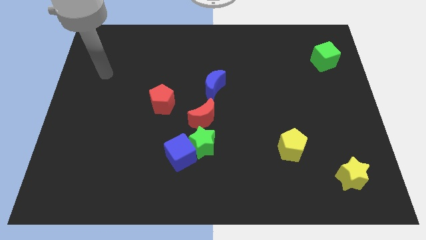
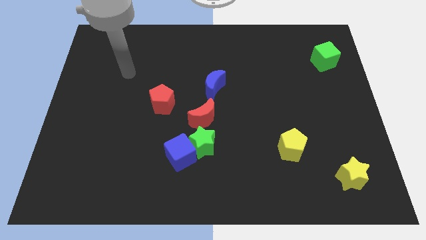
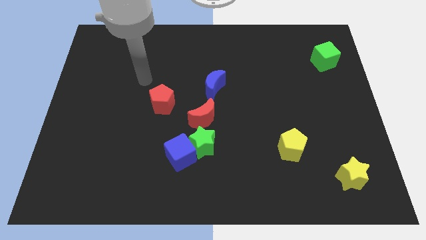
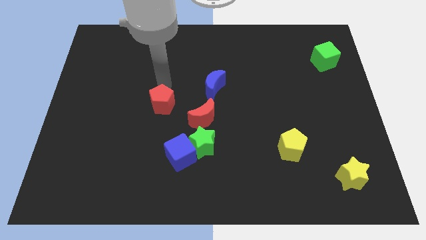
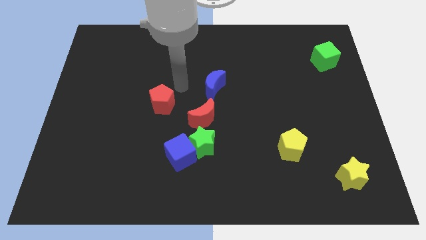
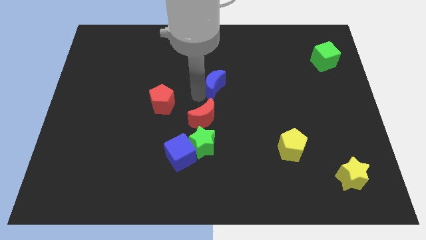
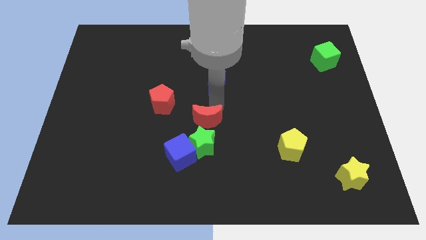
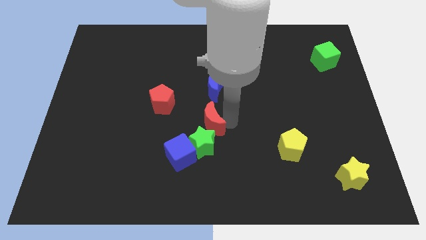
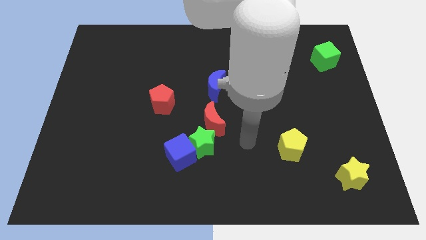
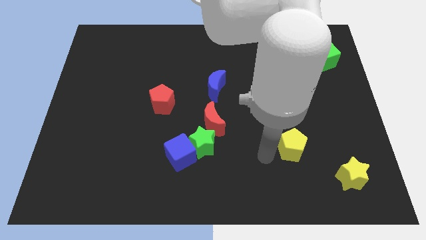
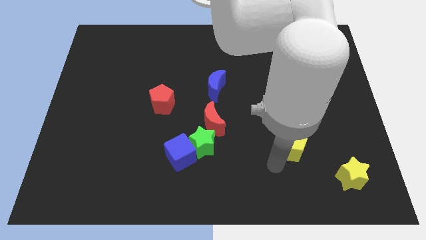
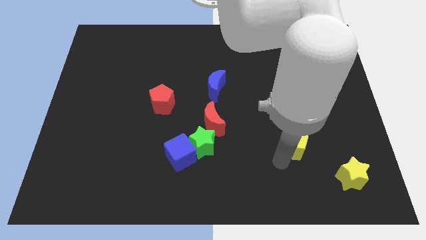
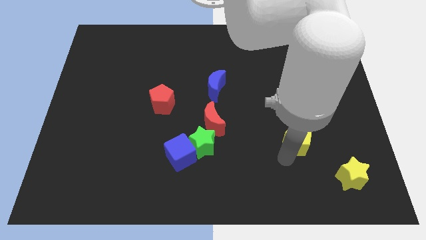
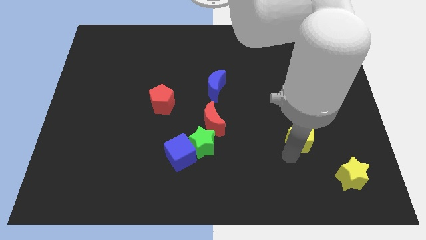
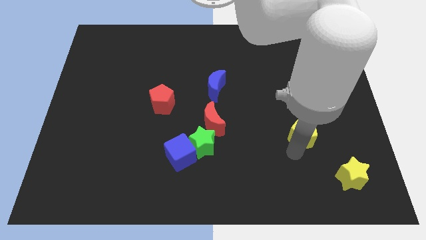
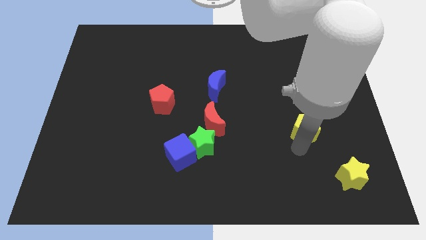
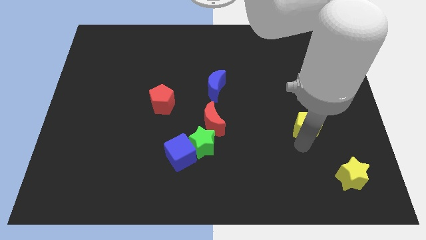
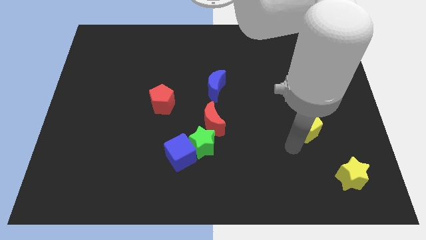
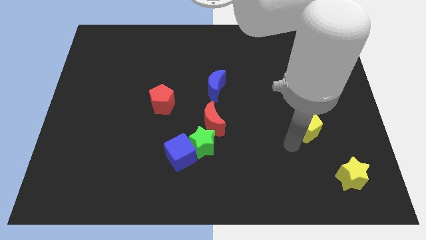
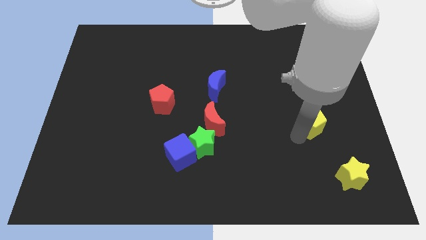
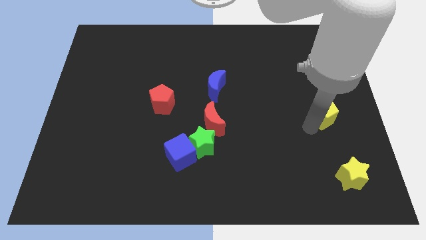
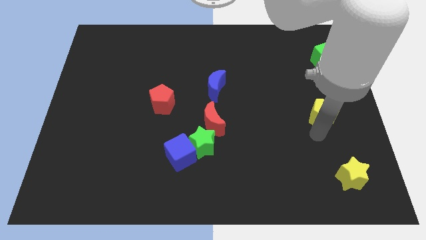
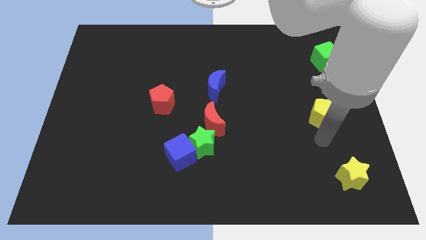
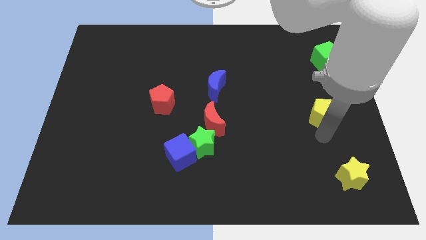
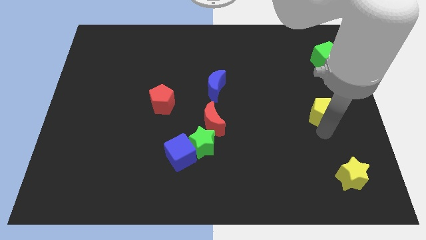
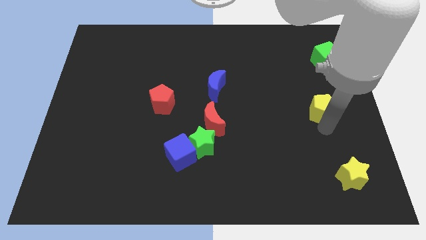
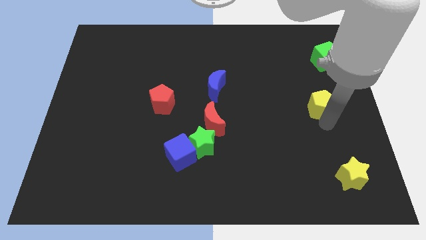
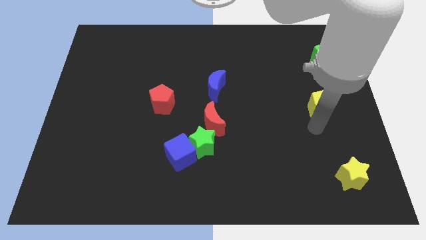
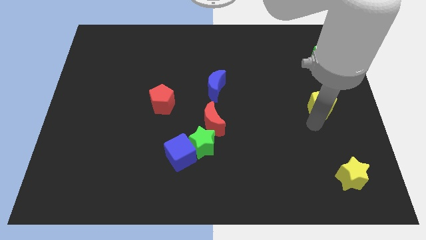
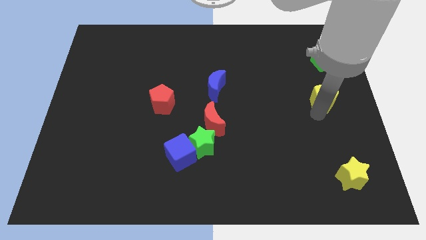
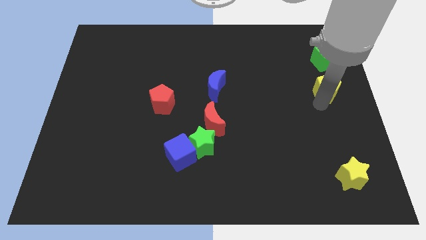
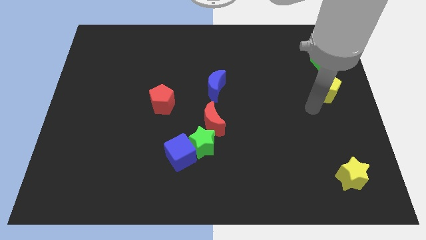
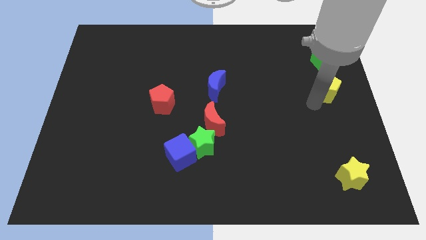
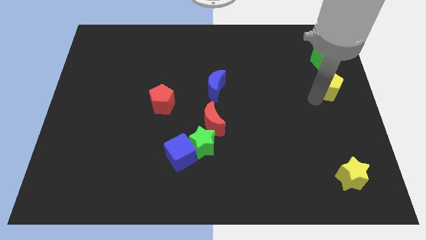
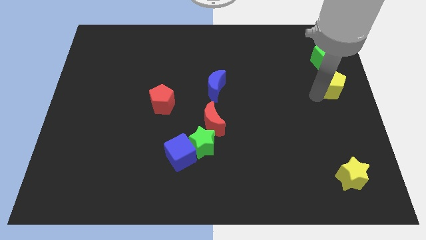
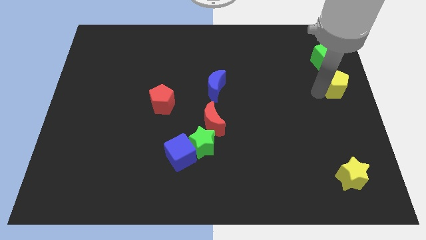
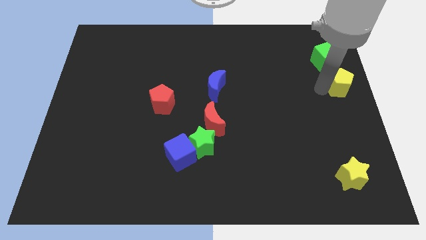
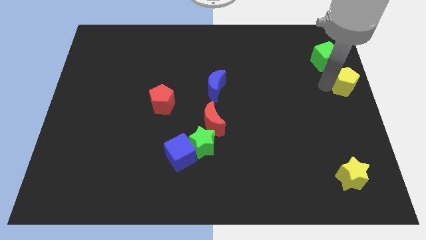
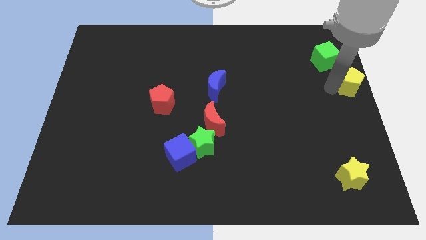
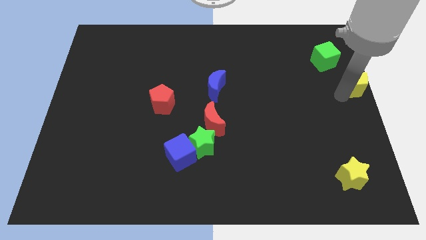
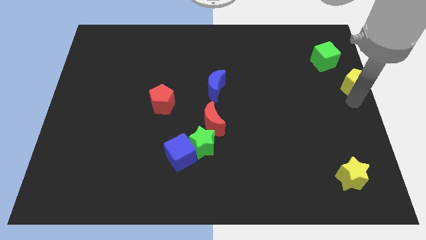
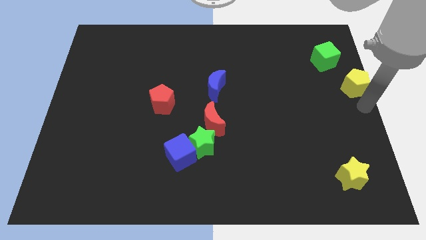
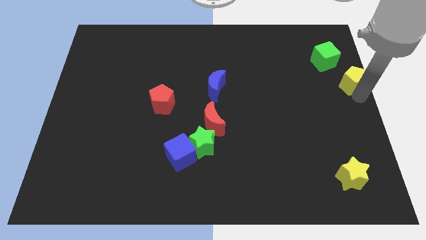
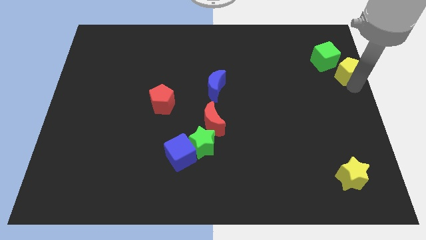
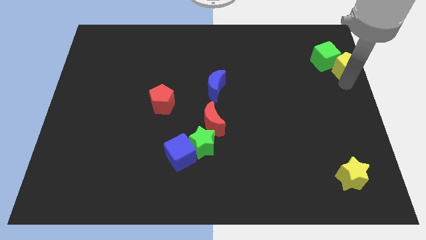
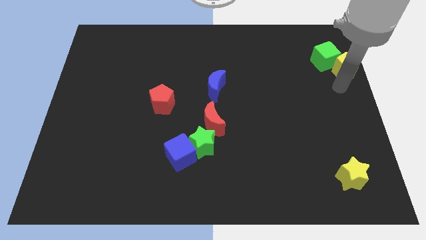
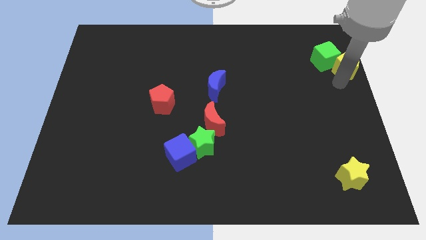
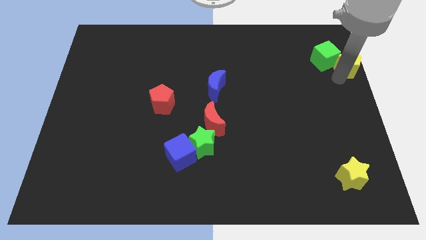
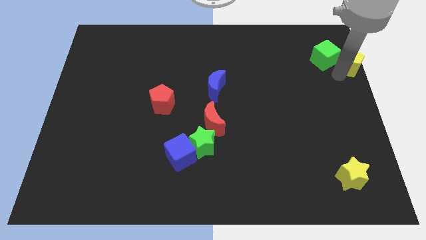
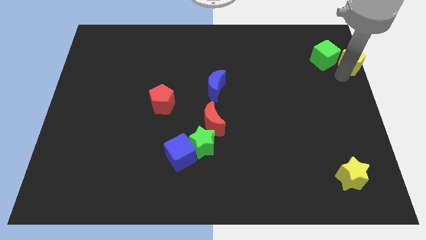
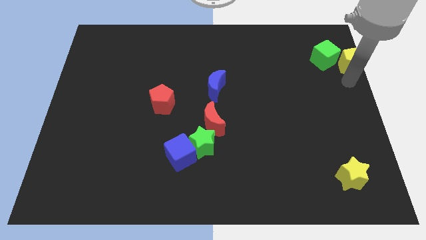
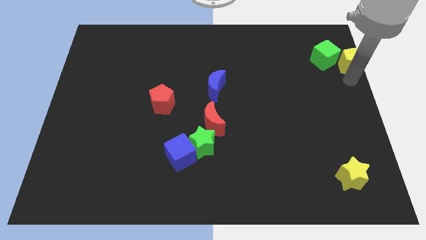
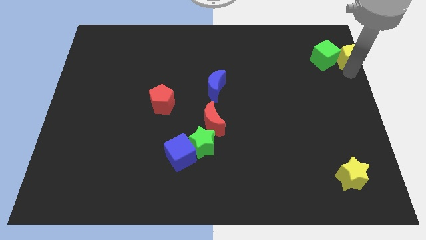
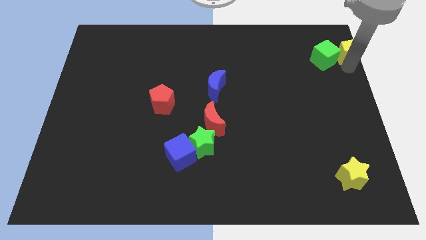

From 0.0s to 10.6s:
put the yellow pentagon to the upper right corner

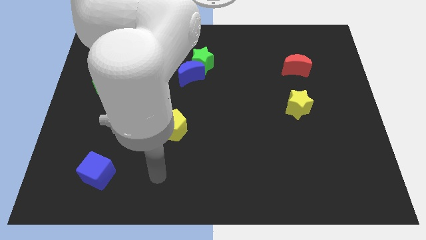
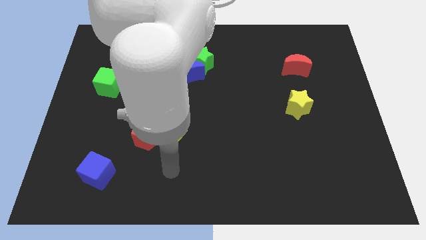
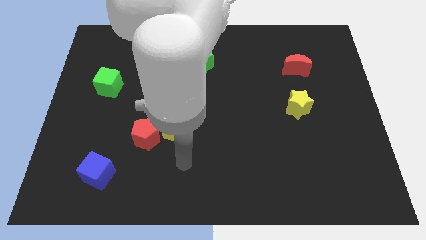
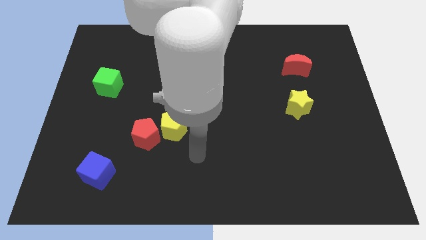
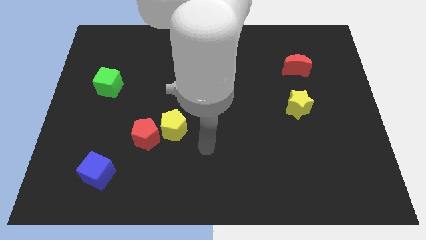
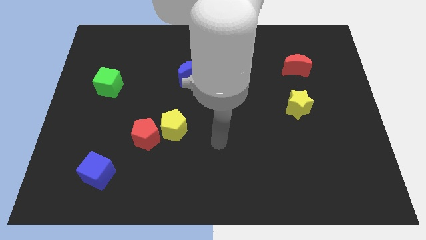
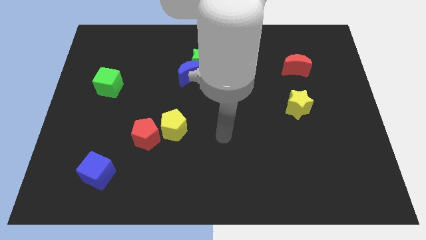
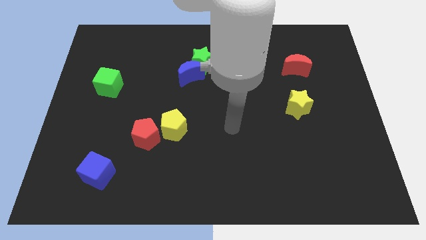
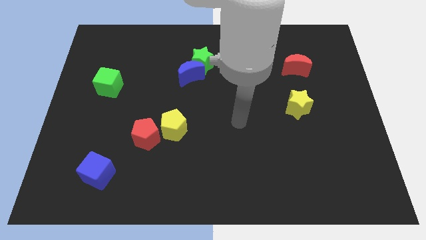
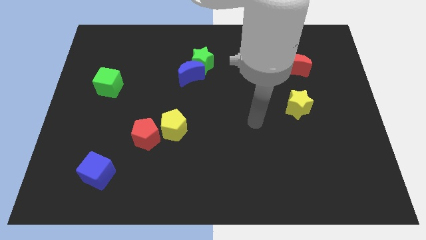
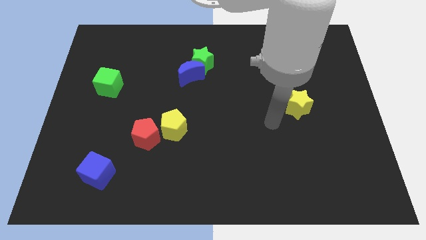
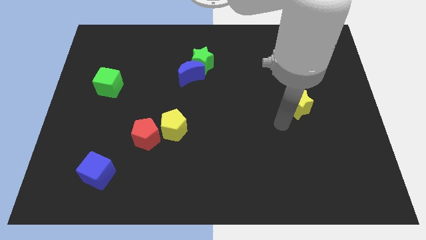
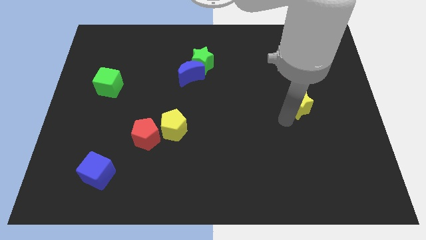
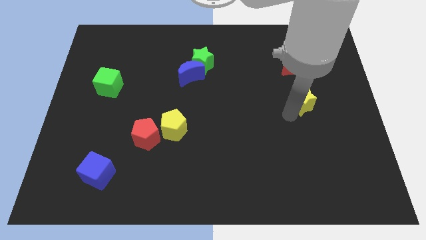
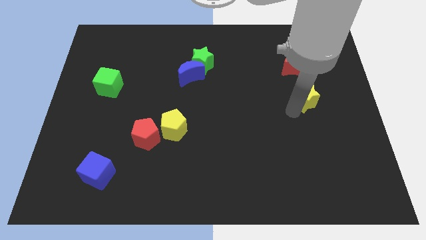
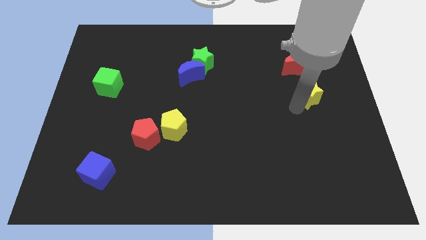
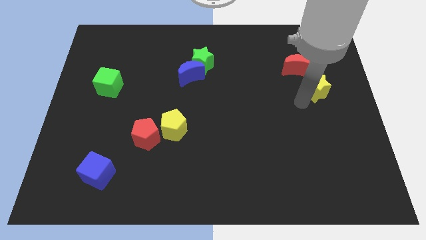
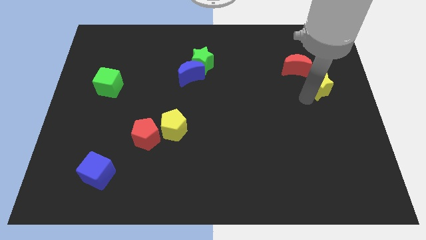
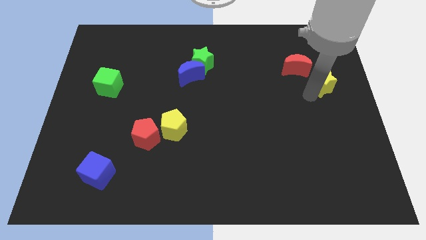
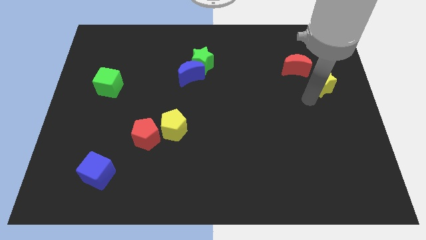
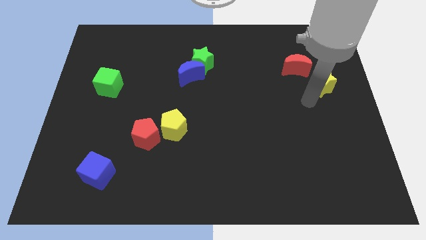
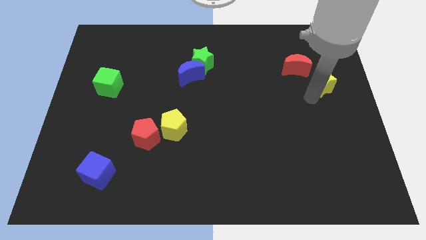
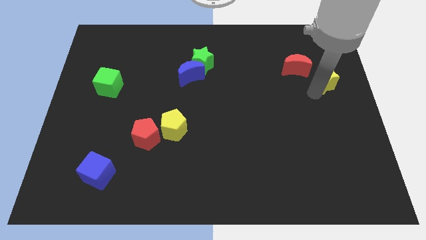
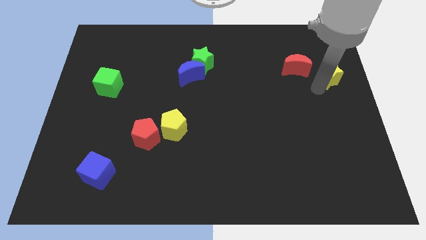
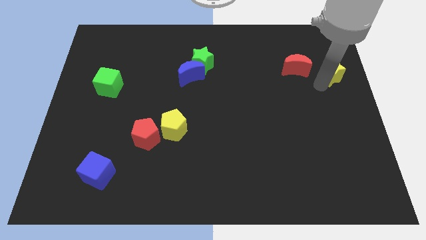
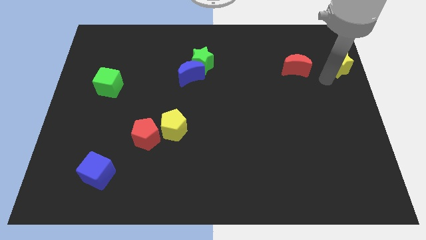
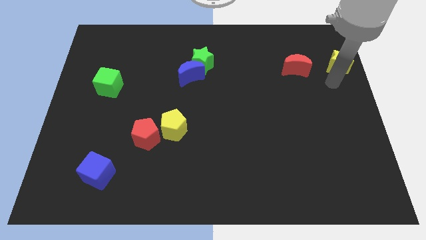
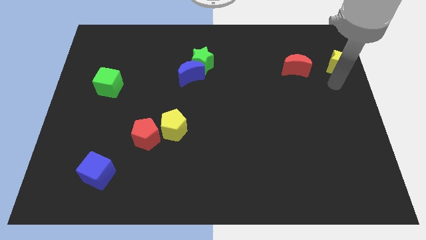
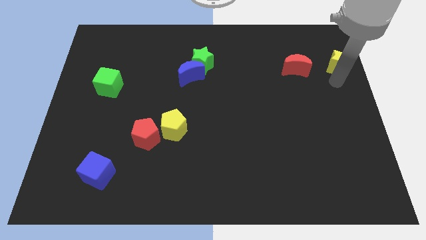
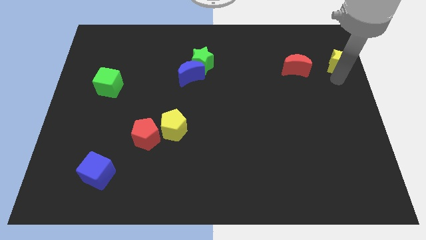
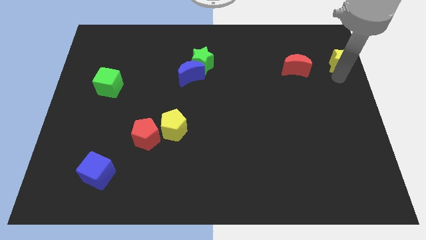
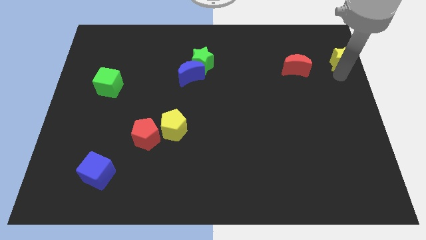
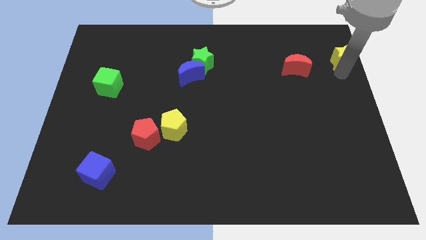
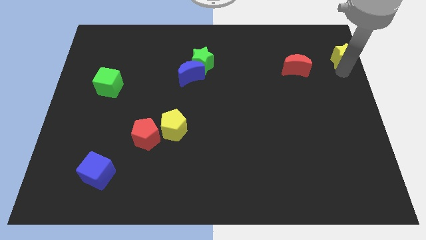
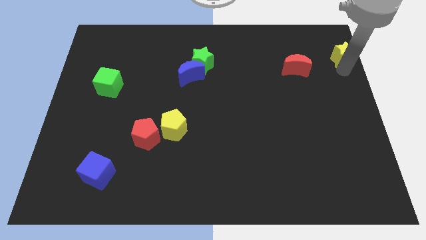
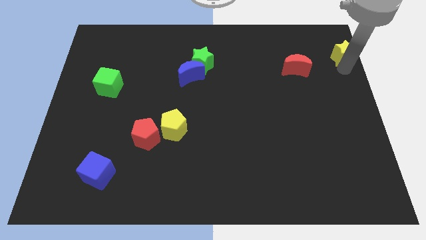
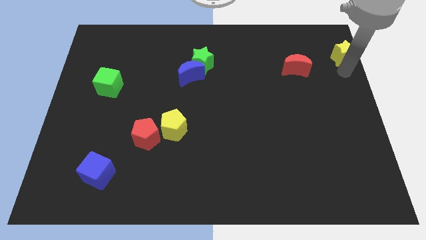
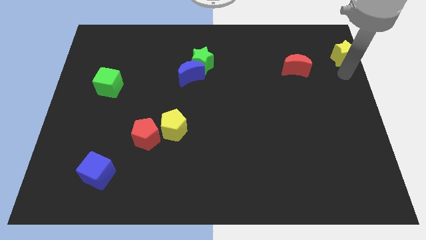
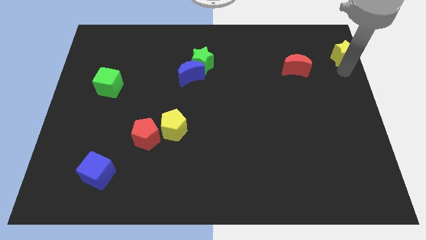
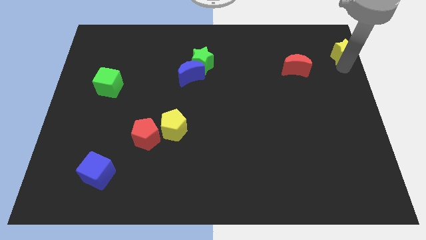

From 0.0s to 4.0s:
put the yellow star to the upper right corner
